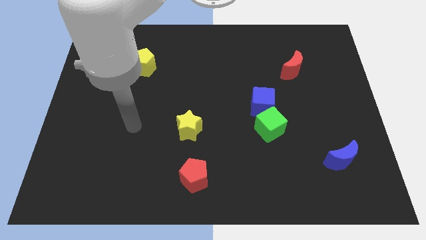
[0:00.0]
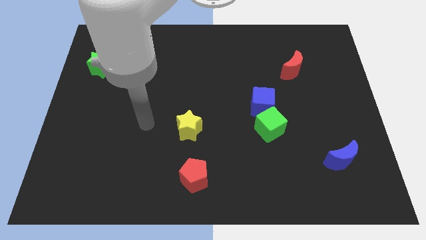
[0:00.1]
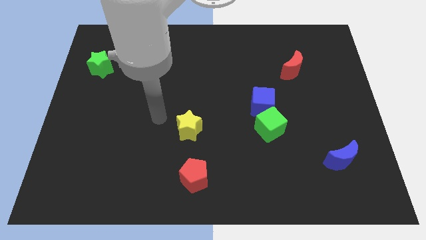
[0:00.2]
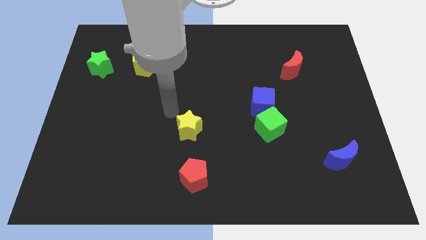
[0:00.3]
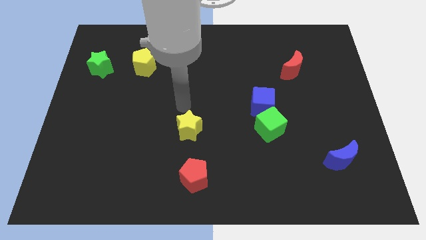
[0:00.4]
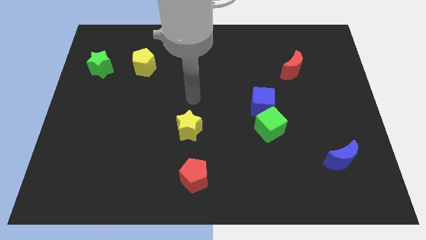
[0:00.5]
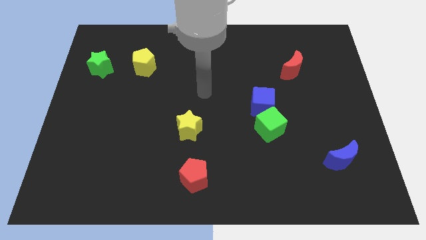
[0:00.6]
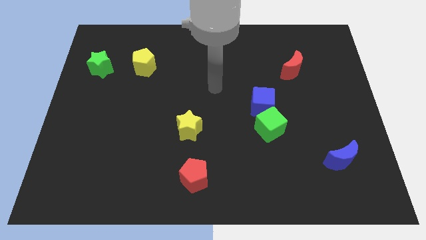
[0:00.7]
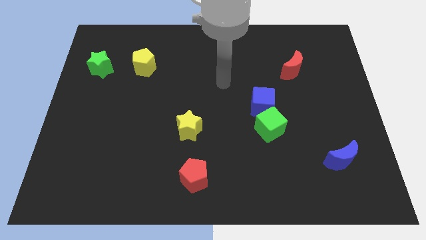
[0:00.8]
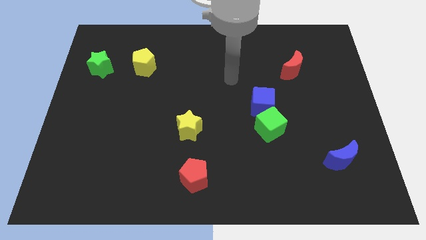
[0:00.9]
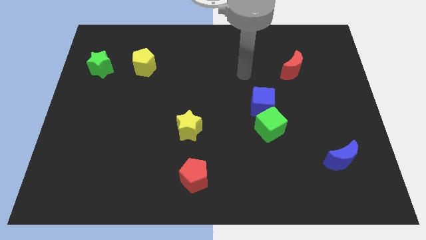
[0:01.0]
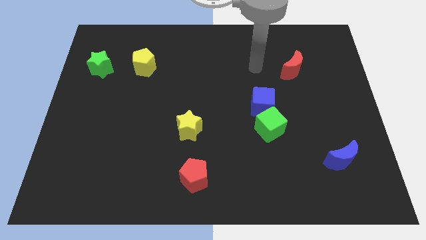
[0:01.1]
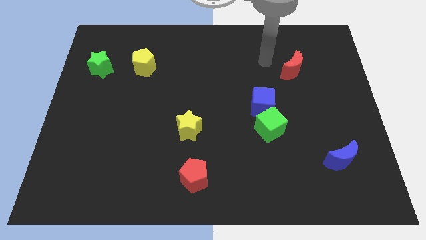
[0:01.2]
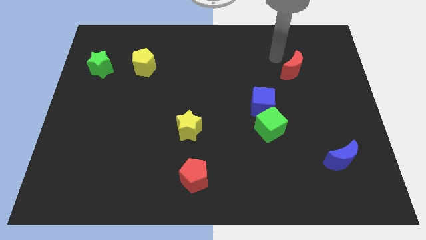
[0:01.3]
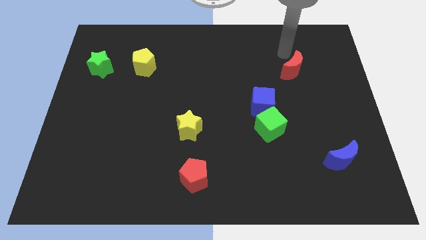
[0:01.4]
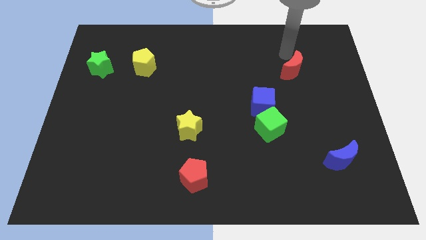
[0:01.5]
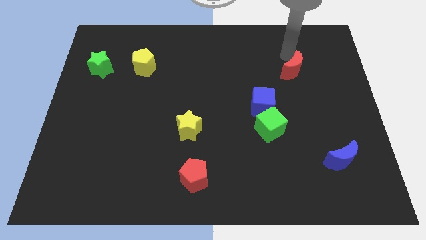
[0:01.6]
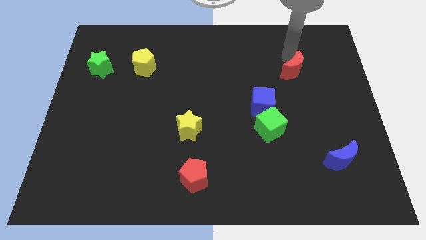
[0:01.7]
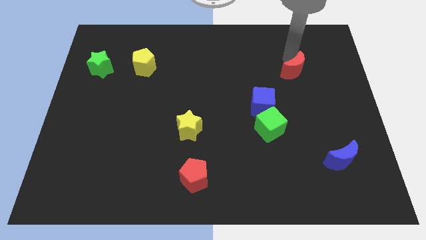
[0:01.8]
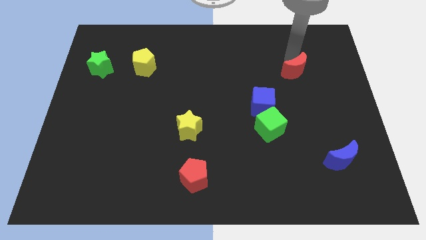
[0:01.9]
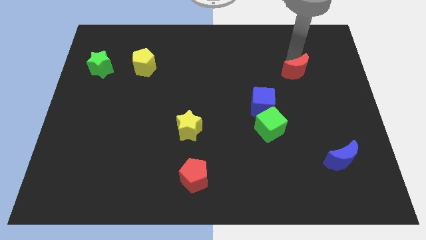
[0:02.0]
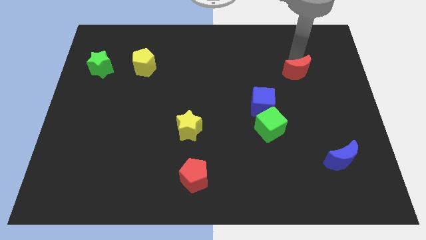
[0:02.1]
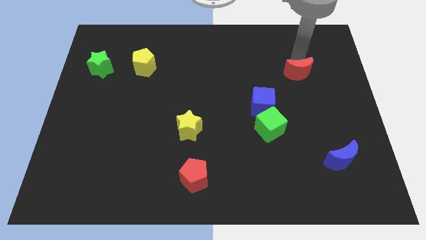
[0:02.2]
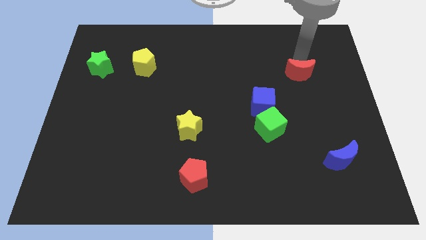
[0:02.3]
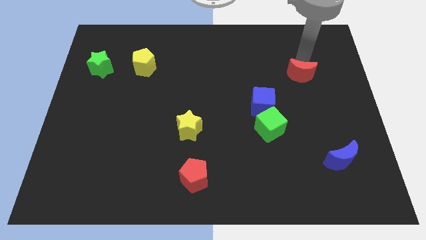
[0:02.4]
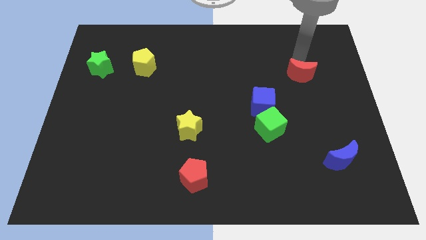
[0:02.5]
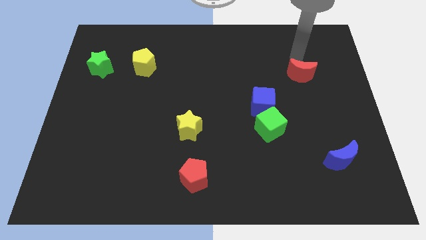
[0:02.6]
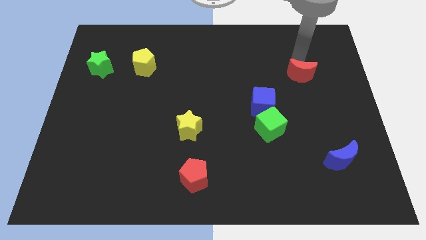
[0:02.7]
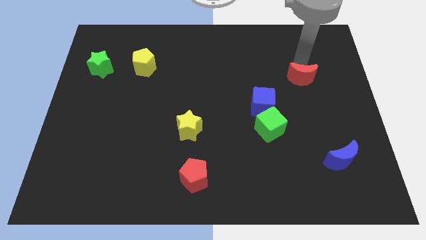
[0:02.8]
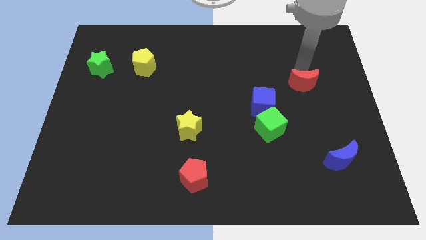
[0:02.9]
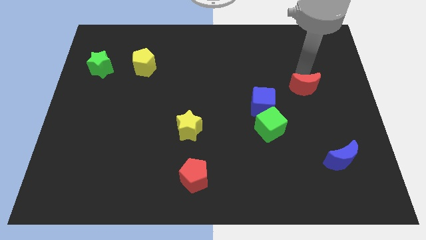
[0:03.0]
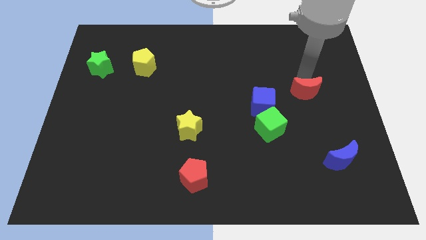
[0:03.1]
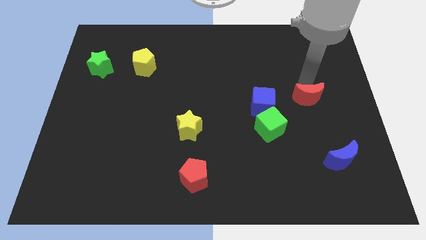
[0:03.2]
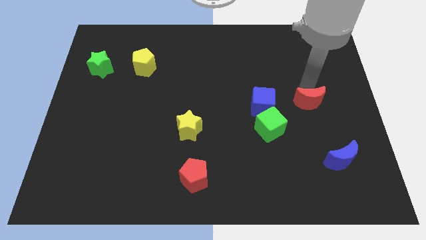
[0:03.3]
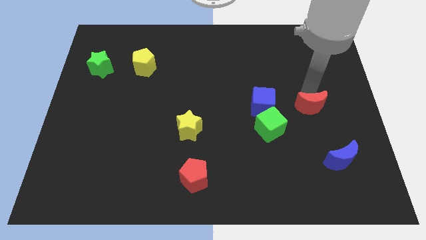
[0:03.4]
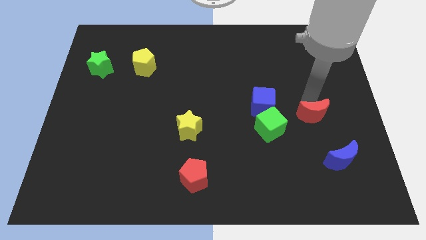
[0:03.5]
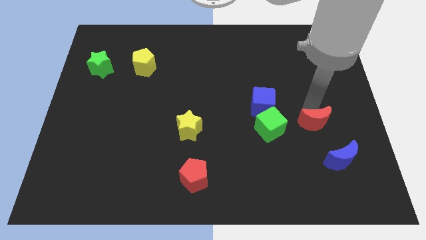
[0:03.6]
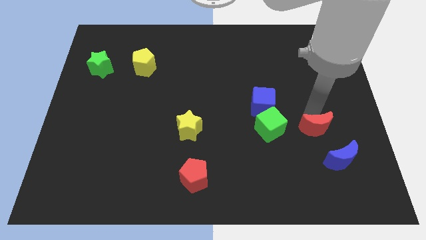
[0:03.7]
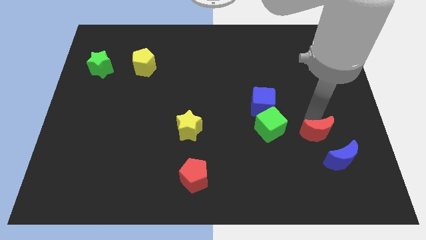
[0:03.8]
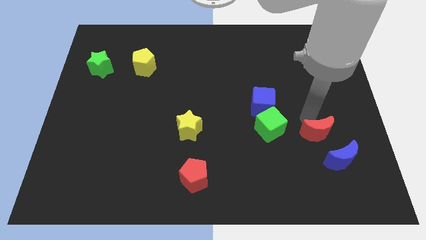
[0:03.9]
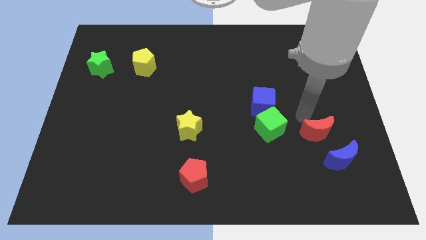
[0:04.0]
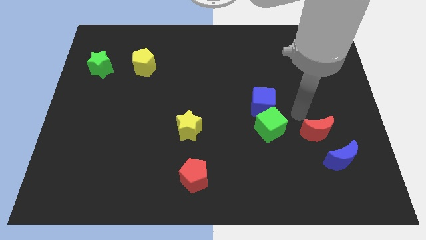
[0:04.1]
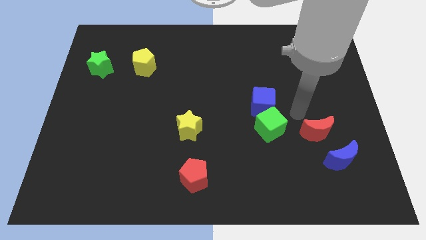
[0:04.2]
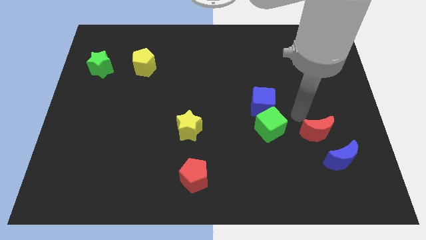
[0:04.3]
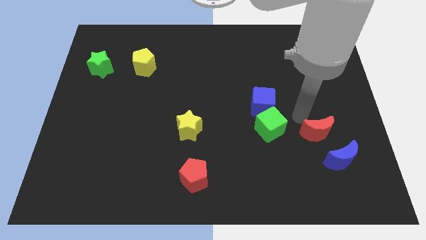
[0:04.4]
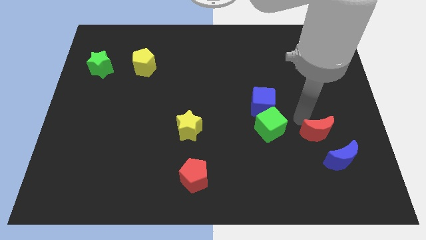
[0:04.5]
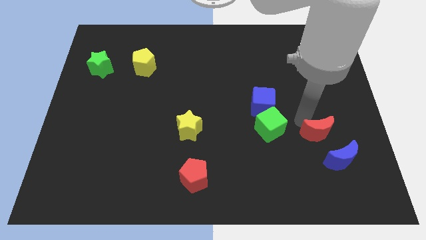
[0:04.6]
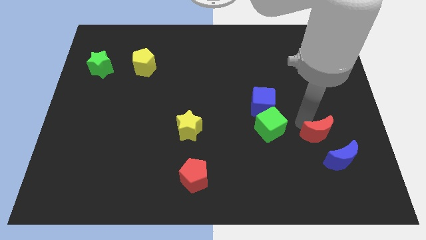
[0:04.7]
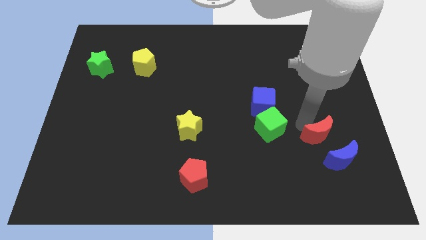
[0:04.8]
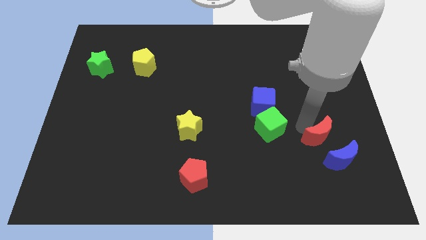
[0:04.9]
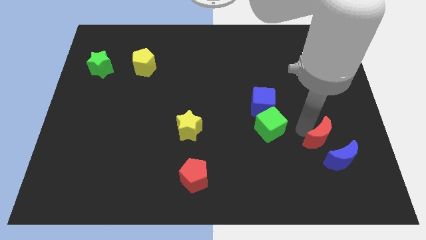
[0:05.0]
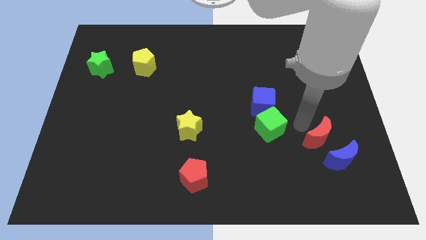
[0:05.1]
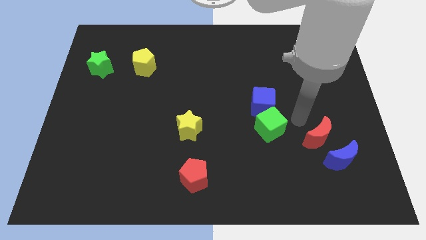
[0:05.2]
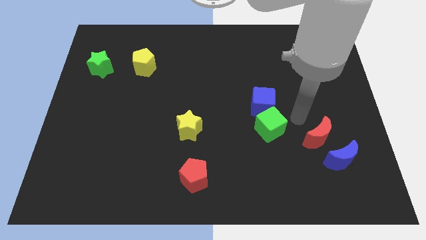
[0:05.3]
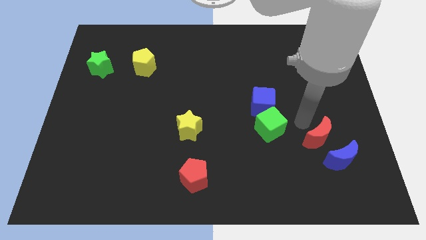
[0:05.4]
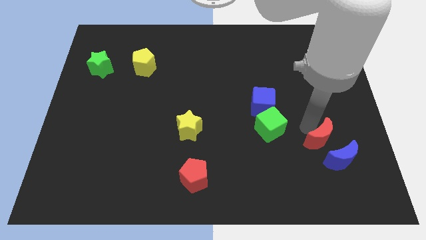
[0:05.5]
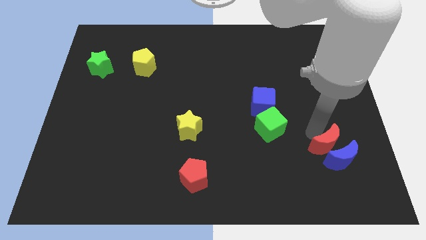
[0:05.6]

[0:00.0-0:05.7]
push the red moon next to the blue moon
